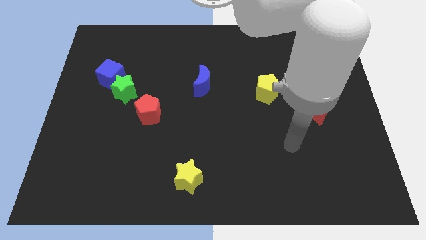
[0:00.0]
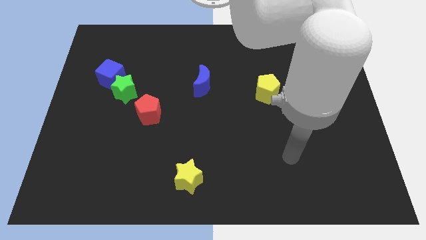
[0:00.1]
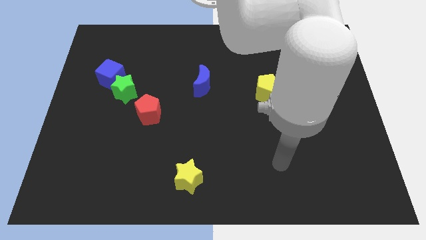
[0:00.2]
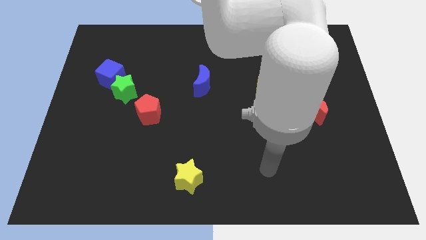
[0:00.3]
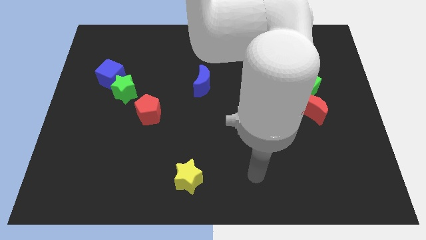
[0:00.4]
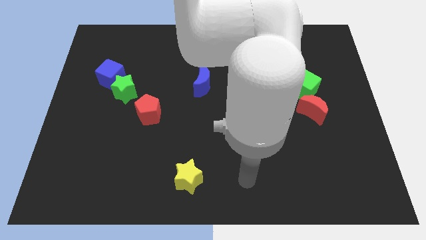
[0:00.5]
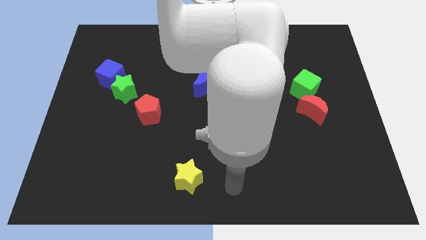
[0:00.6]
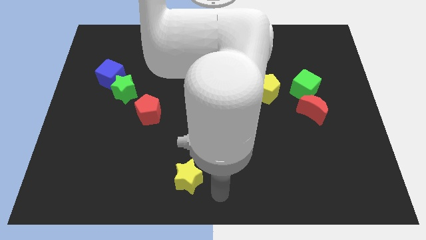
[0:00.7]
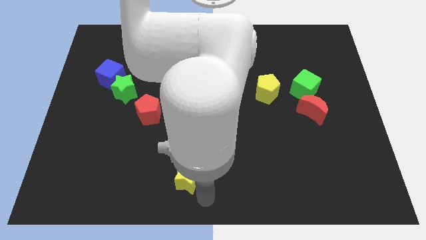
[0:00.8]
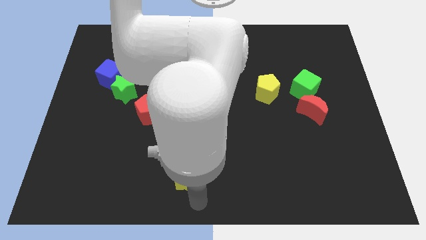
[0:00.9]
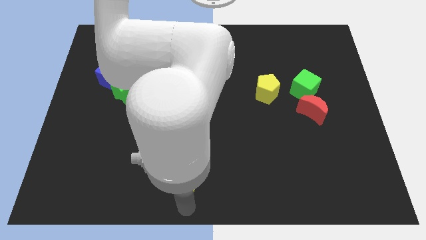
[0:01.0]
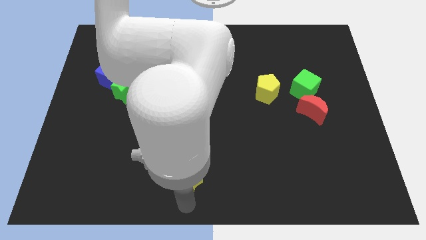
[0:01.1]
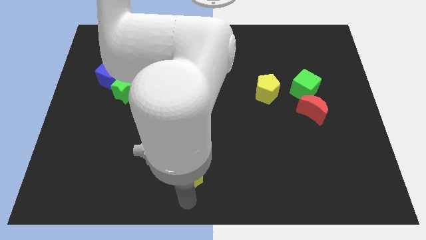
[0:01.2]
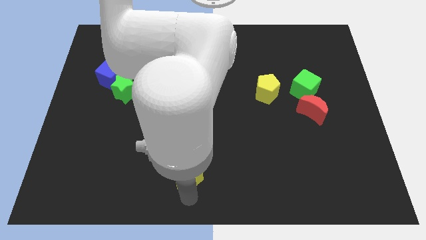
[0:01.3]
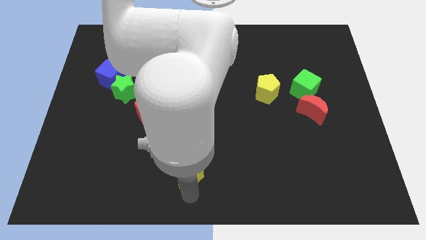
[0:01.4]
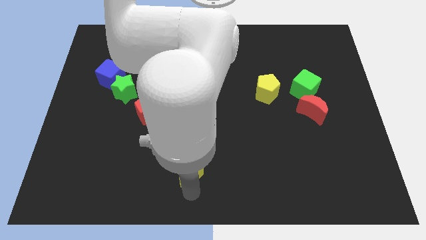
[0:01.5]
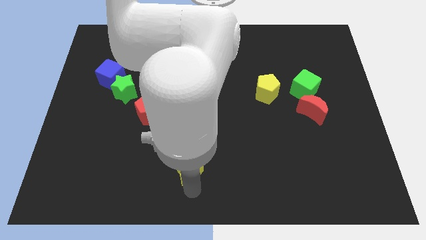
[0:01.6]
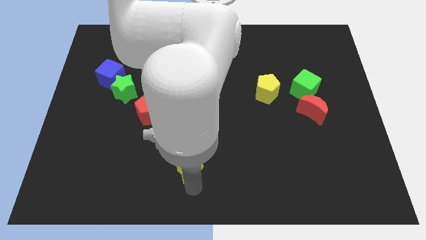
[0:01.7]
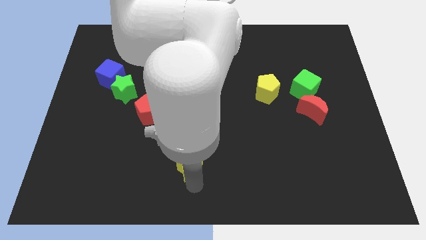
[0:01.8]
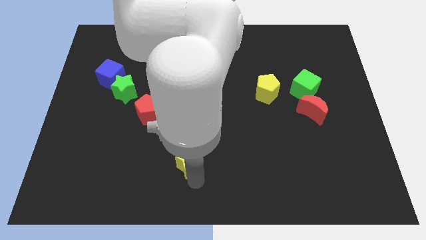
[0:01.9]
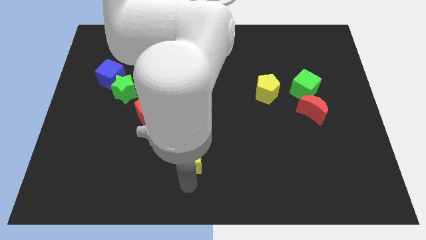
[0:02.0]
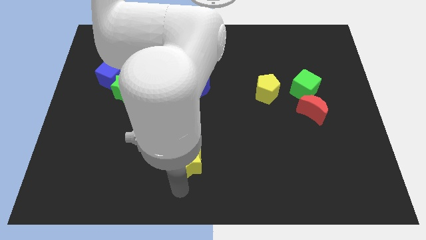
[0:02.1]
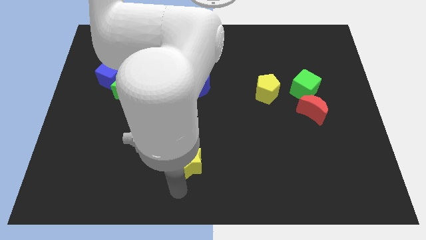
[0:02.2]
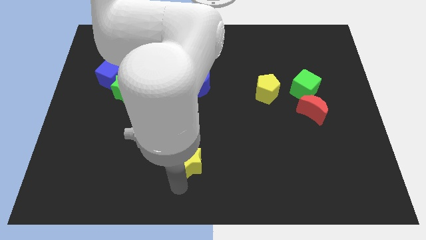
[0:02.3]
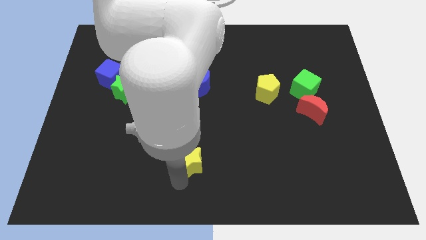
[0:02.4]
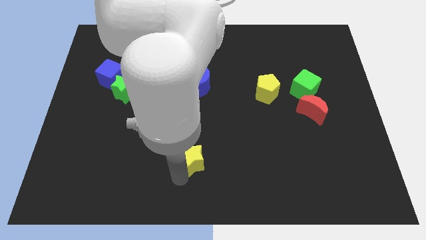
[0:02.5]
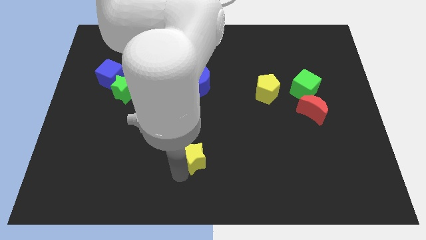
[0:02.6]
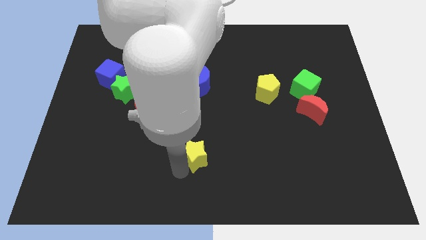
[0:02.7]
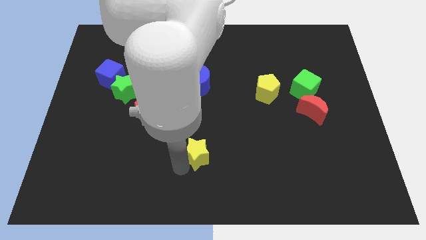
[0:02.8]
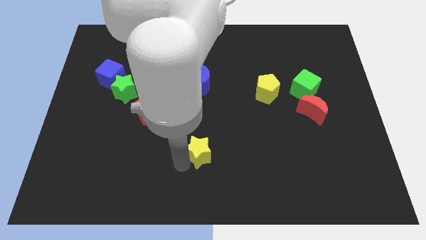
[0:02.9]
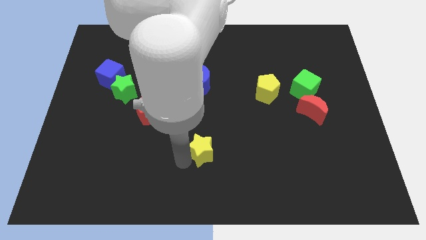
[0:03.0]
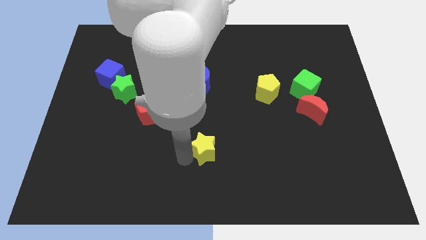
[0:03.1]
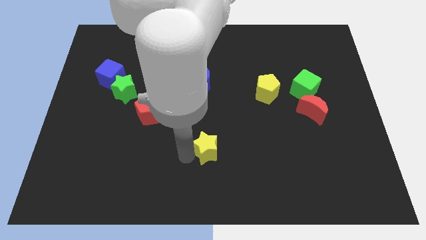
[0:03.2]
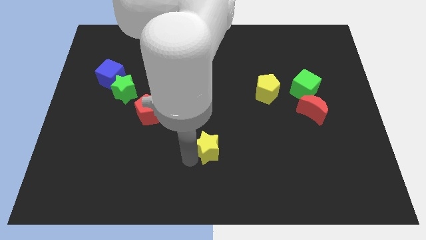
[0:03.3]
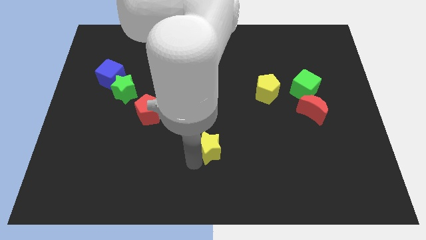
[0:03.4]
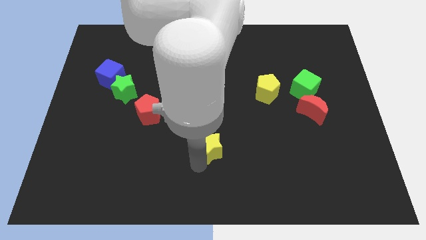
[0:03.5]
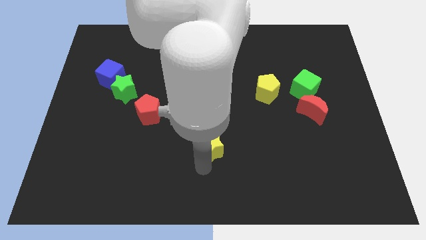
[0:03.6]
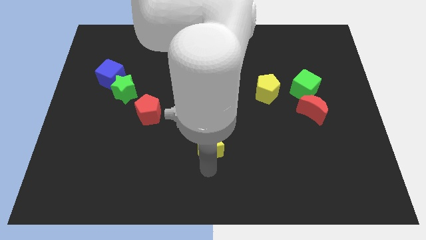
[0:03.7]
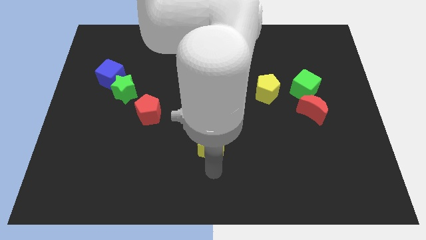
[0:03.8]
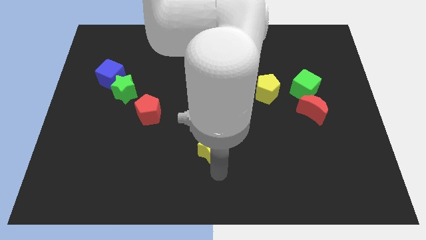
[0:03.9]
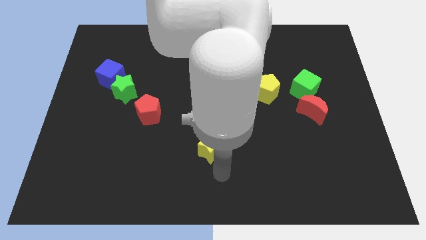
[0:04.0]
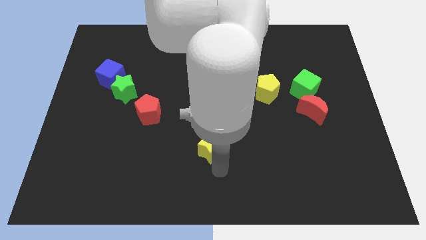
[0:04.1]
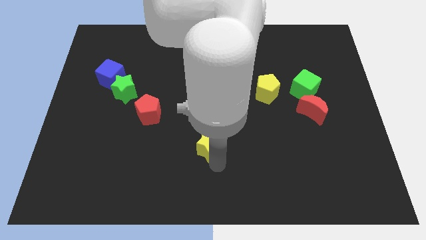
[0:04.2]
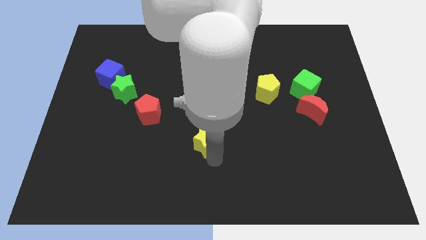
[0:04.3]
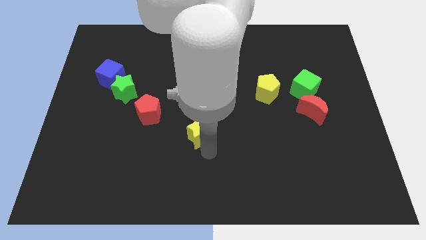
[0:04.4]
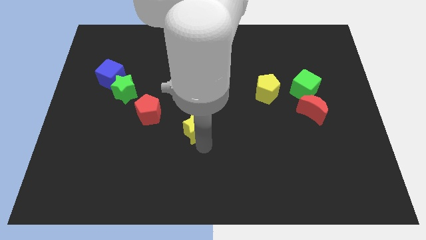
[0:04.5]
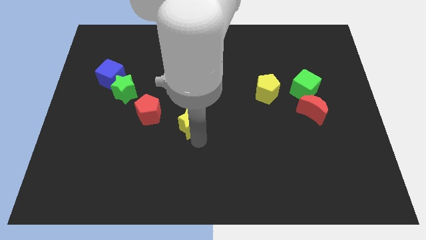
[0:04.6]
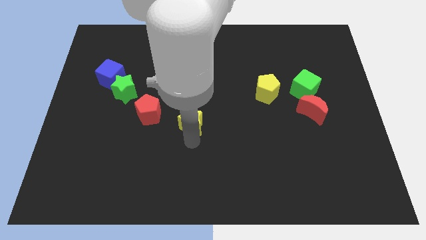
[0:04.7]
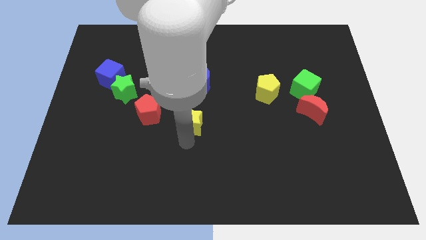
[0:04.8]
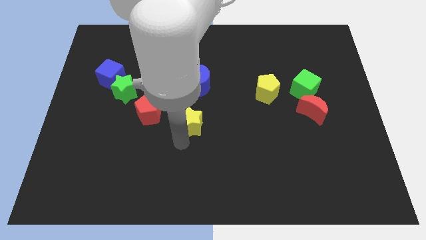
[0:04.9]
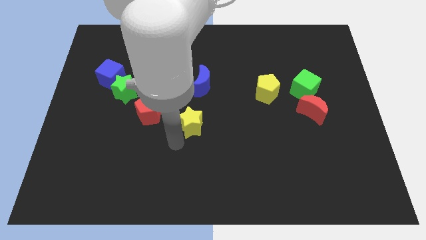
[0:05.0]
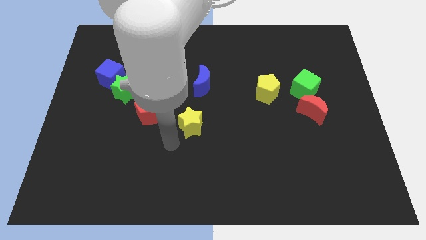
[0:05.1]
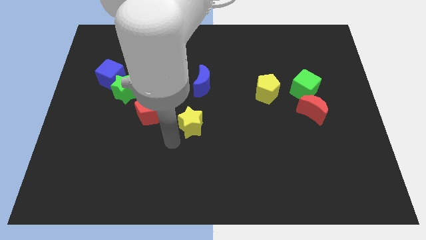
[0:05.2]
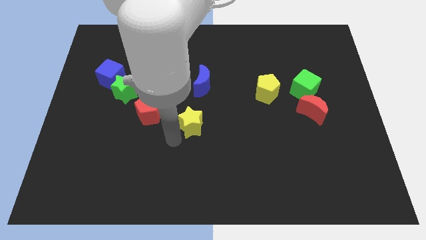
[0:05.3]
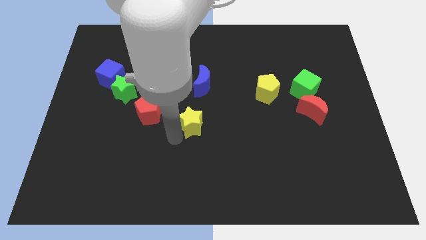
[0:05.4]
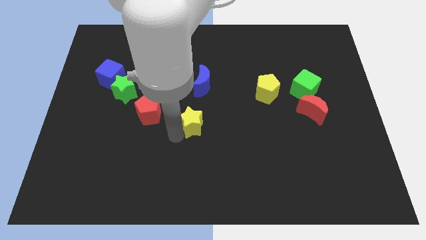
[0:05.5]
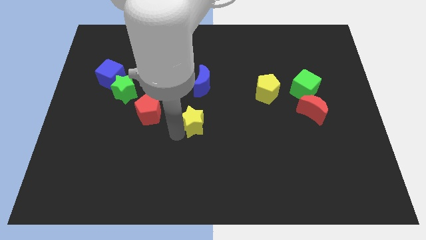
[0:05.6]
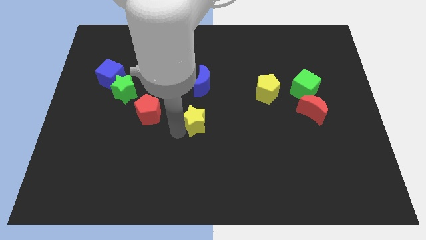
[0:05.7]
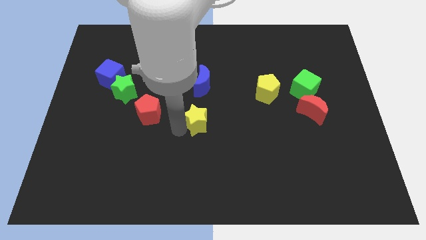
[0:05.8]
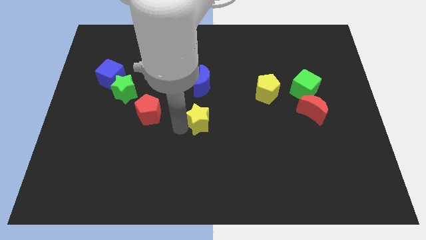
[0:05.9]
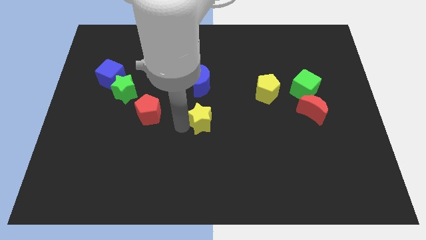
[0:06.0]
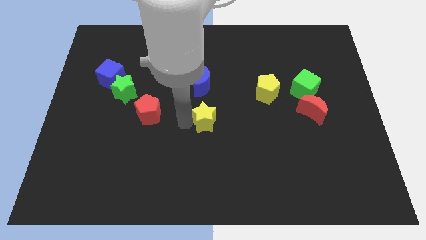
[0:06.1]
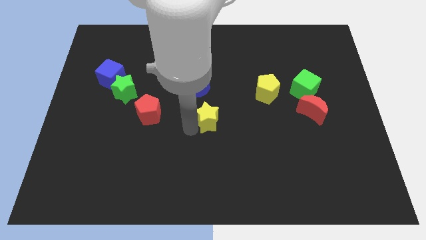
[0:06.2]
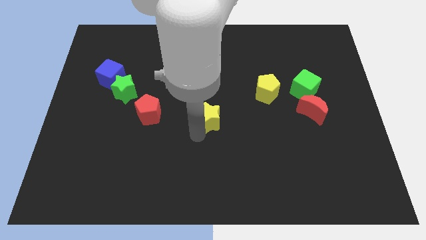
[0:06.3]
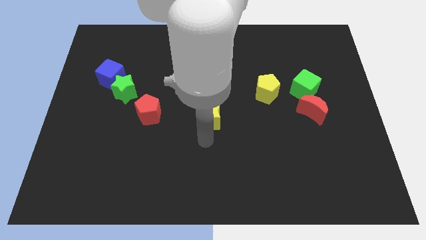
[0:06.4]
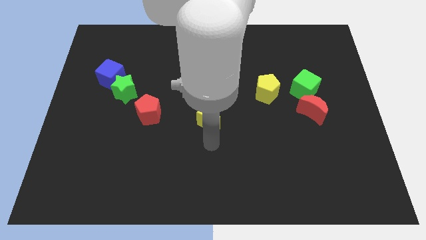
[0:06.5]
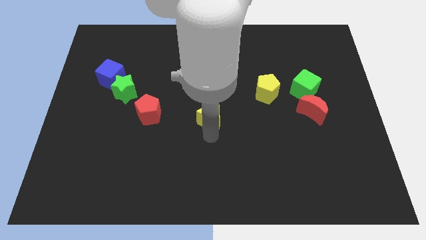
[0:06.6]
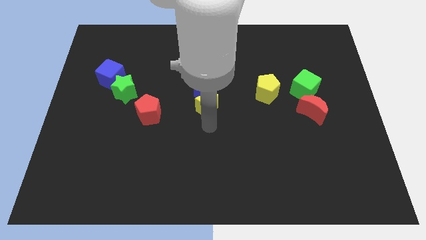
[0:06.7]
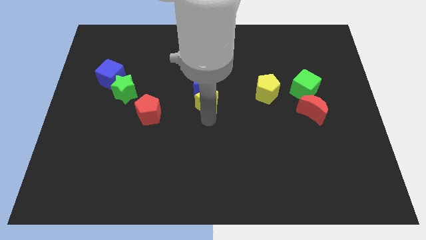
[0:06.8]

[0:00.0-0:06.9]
push the yellow star close to the blue moon

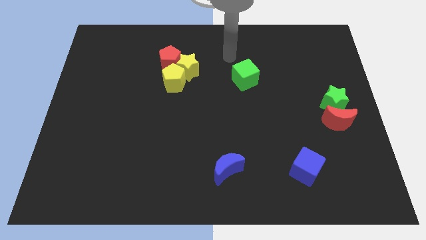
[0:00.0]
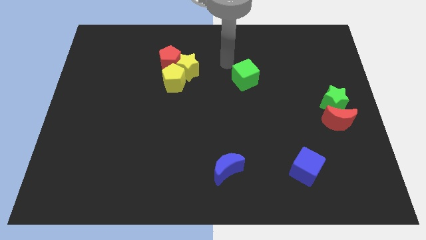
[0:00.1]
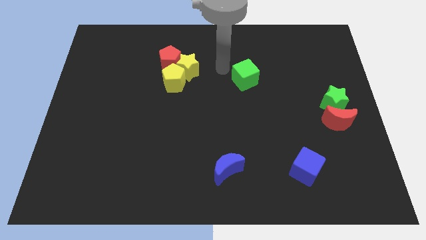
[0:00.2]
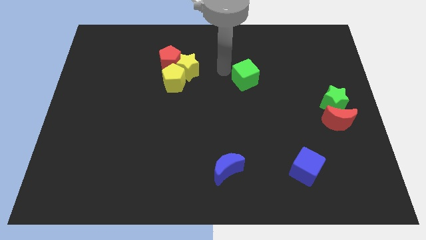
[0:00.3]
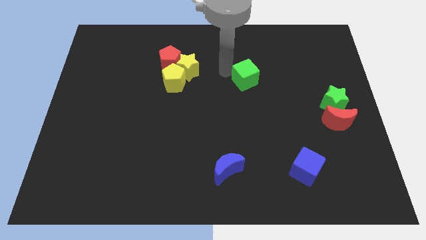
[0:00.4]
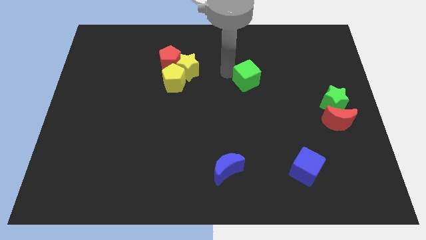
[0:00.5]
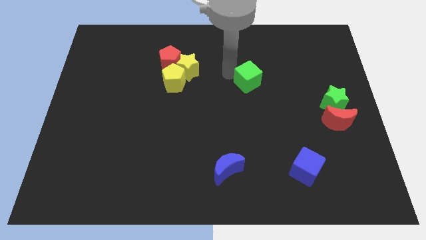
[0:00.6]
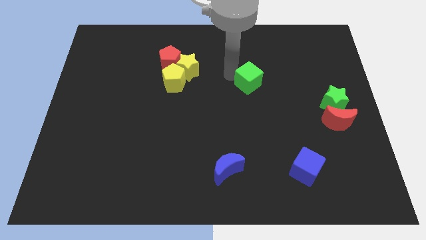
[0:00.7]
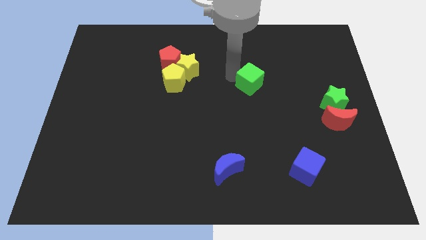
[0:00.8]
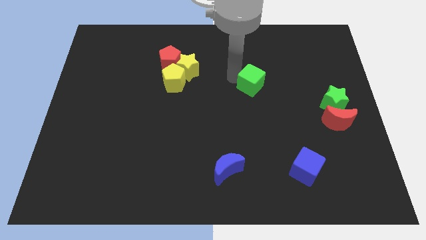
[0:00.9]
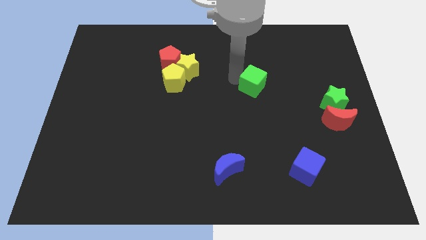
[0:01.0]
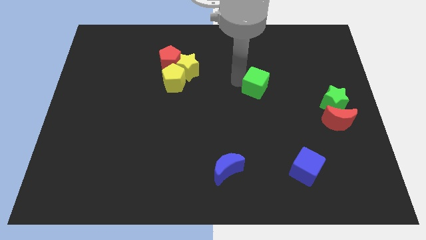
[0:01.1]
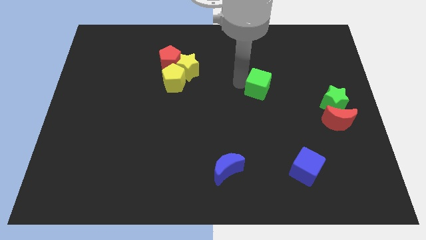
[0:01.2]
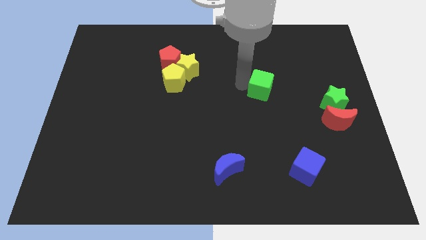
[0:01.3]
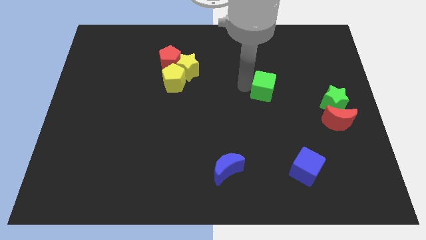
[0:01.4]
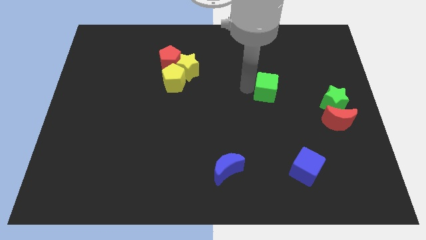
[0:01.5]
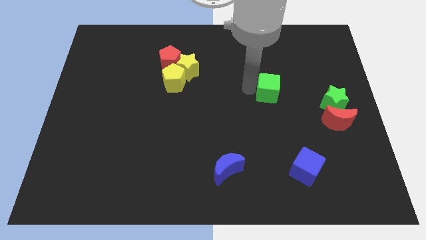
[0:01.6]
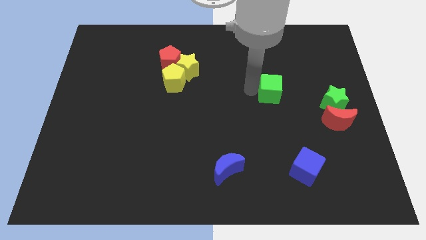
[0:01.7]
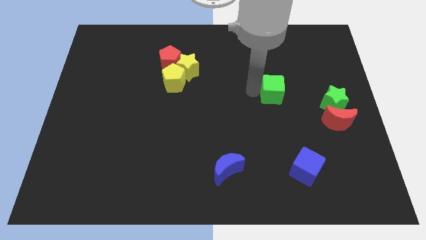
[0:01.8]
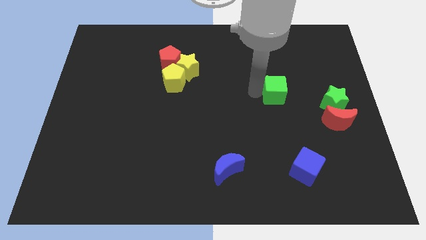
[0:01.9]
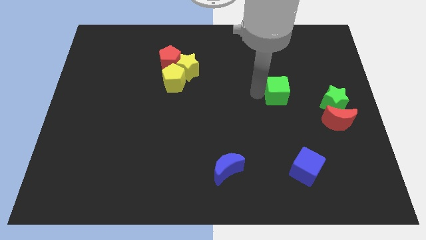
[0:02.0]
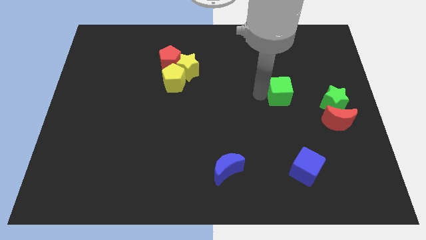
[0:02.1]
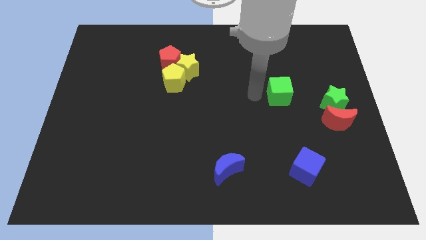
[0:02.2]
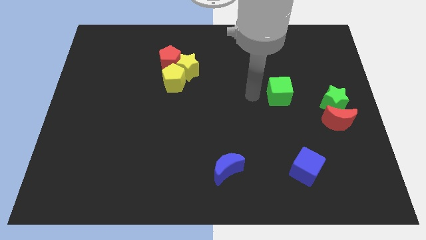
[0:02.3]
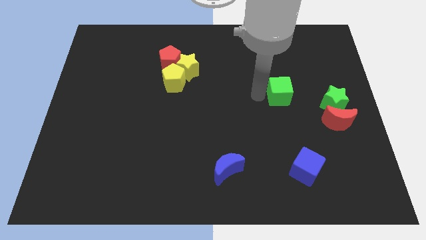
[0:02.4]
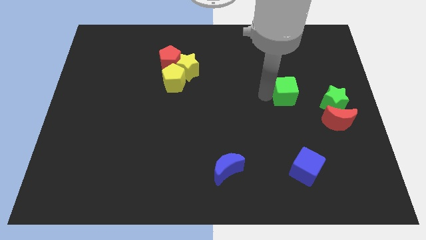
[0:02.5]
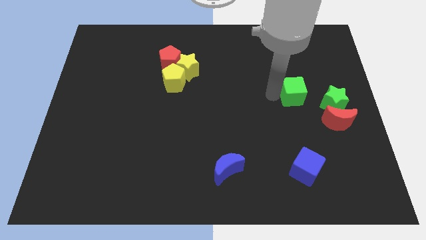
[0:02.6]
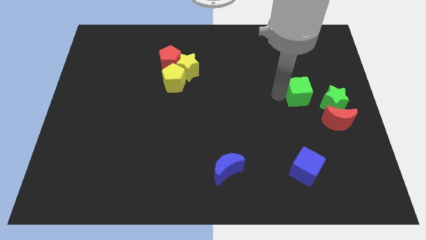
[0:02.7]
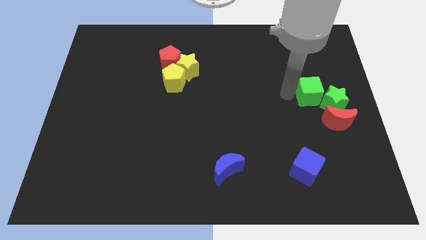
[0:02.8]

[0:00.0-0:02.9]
move the green cube to the green star
